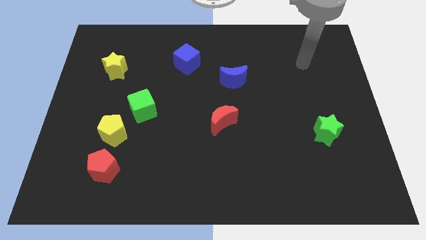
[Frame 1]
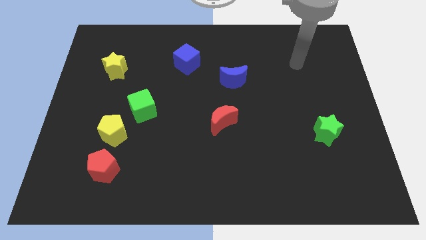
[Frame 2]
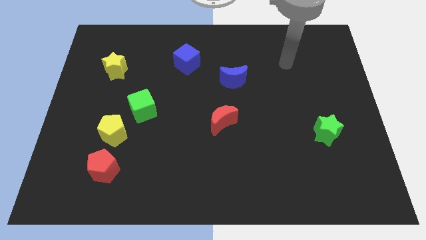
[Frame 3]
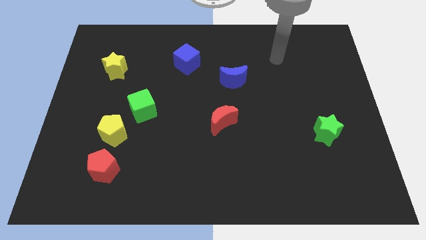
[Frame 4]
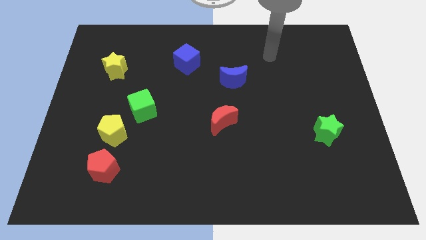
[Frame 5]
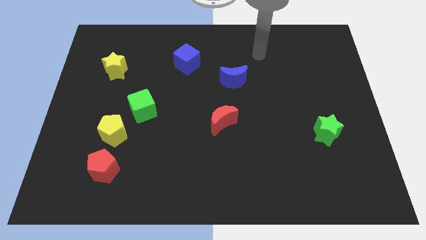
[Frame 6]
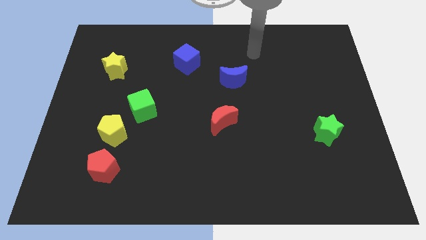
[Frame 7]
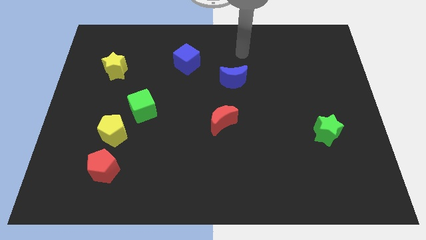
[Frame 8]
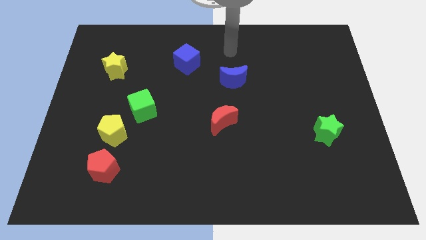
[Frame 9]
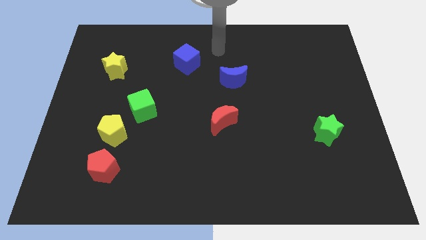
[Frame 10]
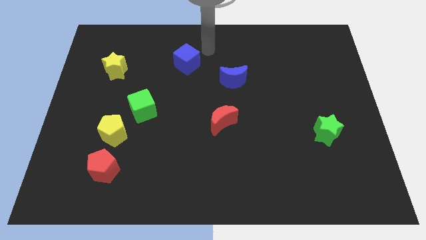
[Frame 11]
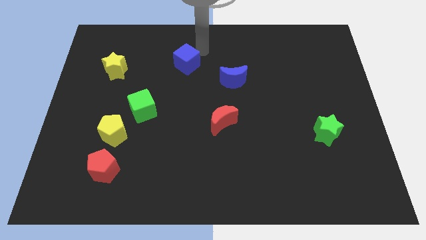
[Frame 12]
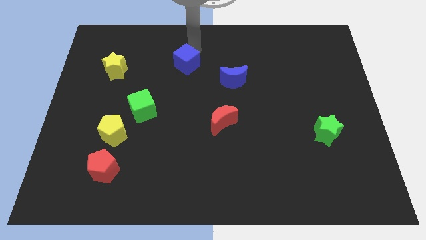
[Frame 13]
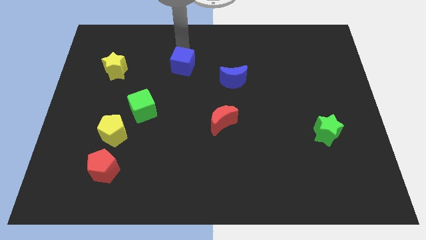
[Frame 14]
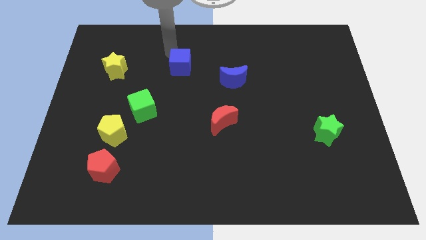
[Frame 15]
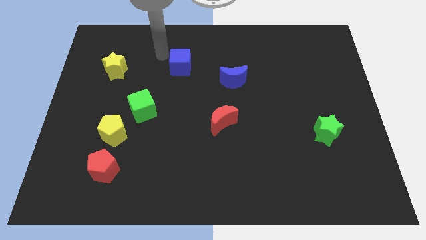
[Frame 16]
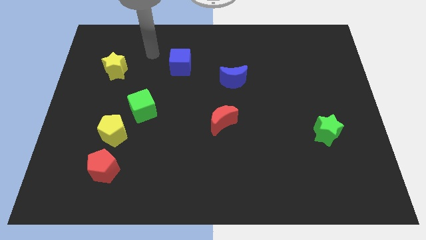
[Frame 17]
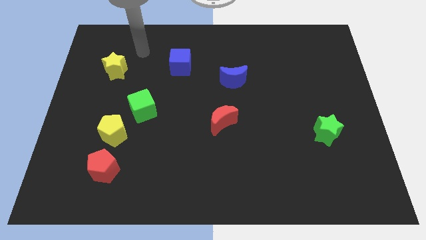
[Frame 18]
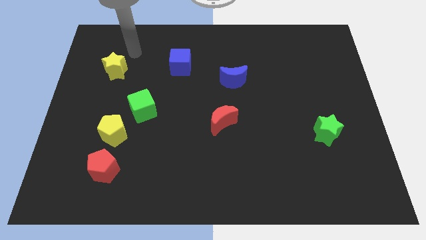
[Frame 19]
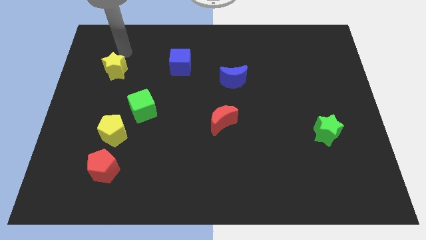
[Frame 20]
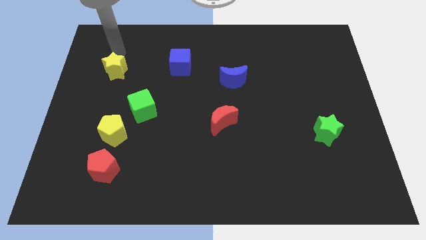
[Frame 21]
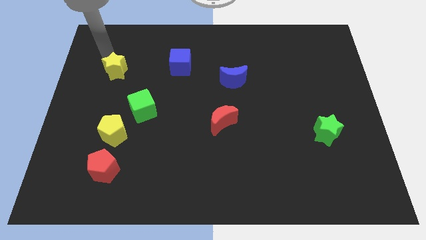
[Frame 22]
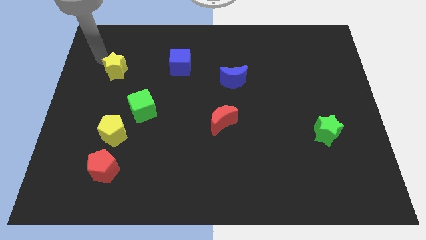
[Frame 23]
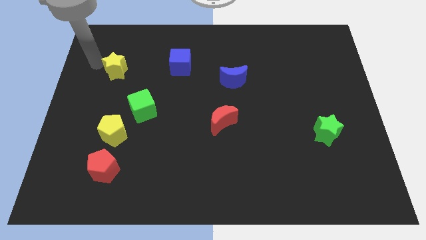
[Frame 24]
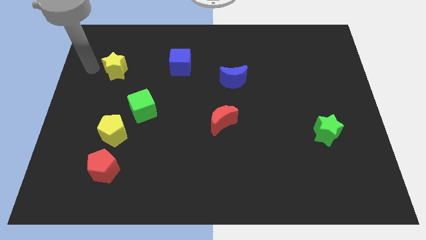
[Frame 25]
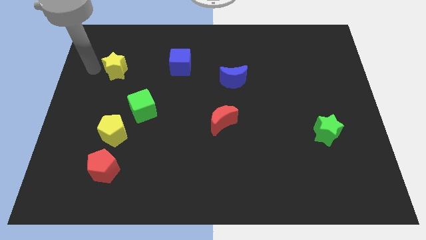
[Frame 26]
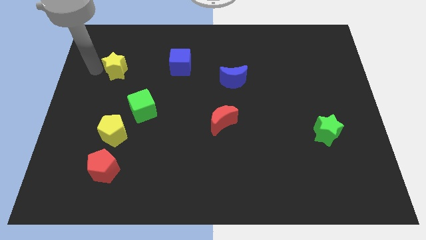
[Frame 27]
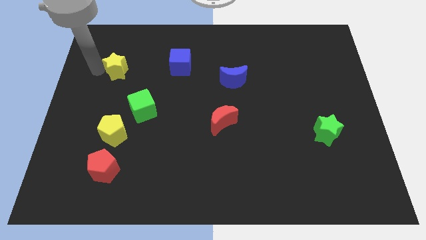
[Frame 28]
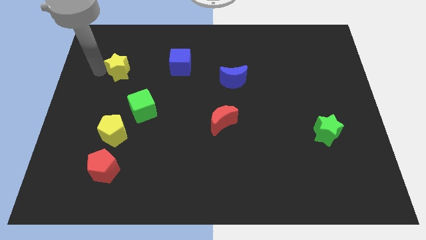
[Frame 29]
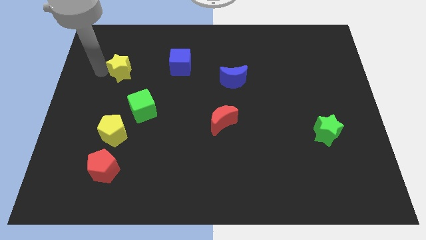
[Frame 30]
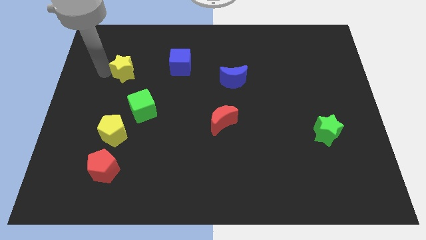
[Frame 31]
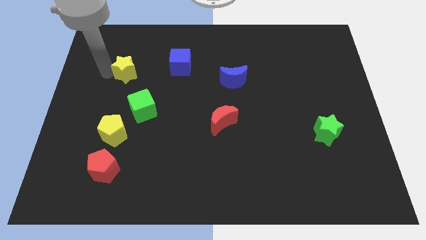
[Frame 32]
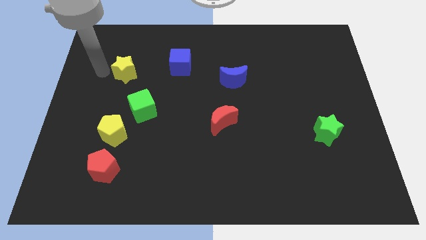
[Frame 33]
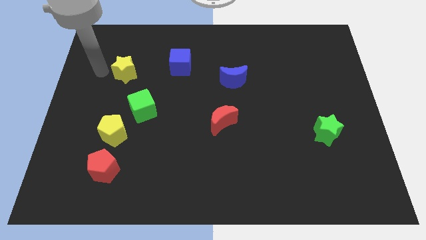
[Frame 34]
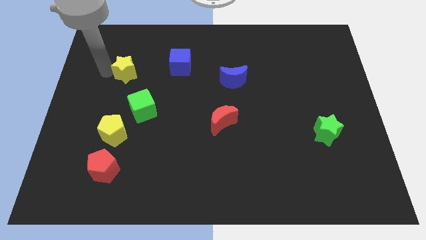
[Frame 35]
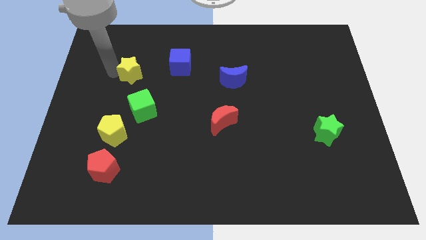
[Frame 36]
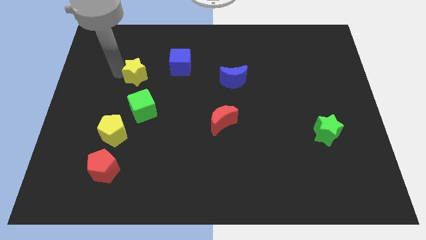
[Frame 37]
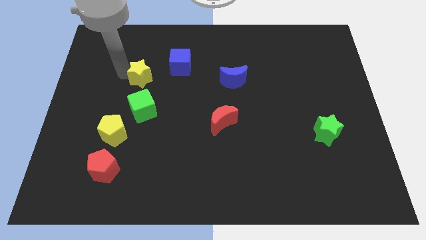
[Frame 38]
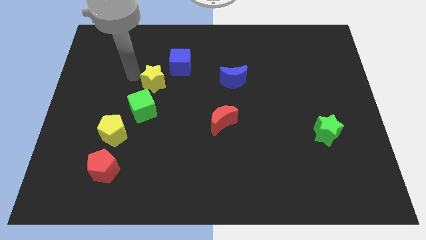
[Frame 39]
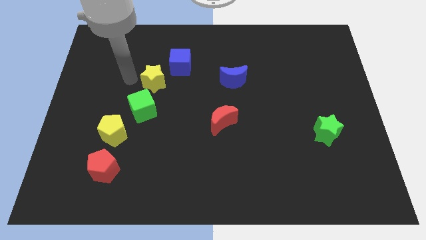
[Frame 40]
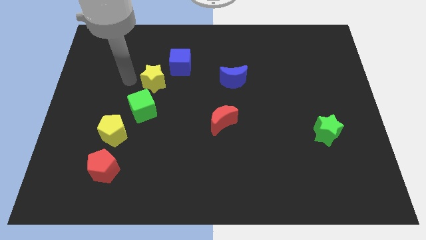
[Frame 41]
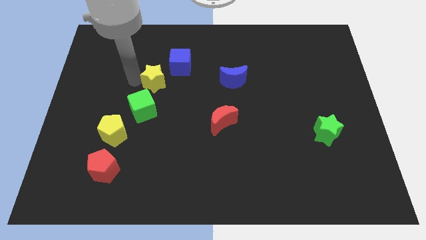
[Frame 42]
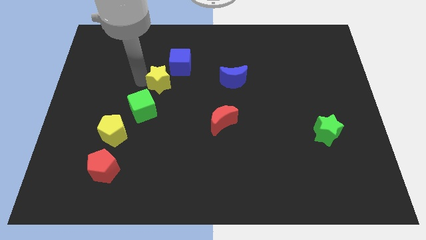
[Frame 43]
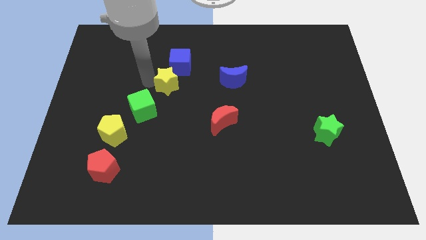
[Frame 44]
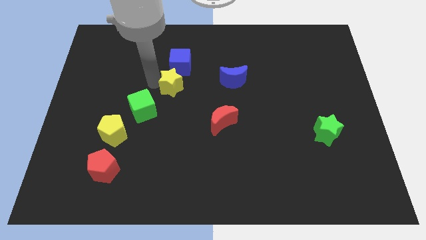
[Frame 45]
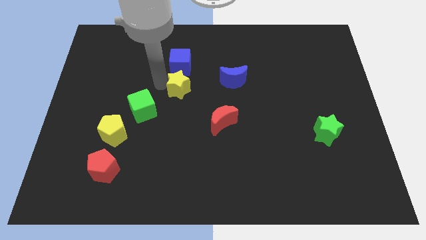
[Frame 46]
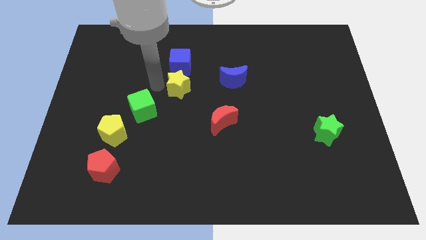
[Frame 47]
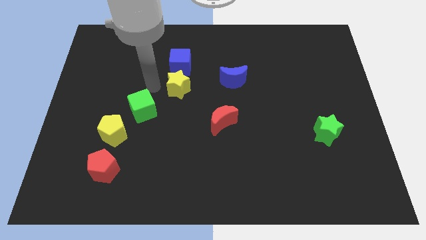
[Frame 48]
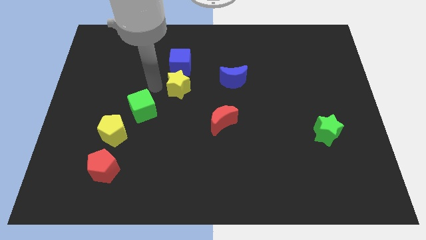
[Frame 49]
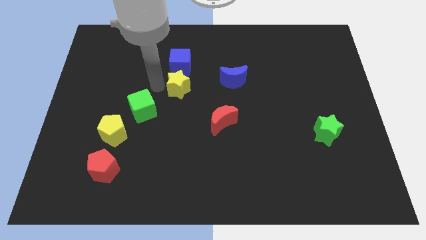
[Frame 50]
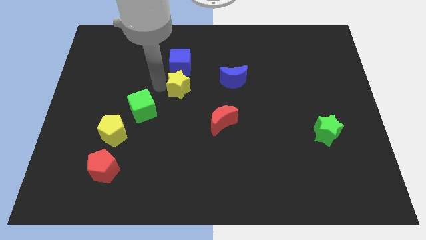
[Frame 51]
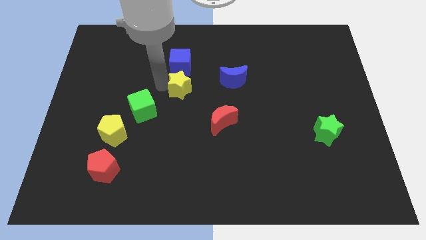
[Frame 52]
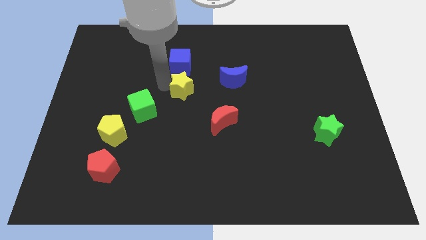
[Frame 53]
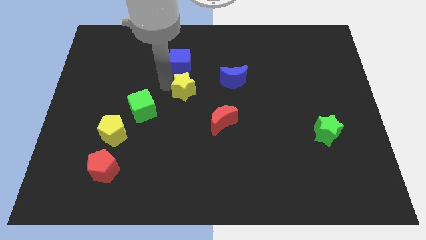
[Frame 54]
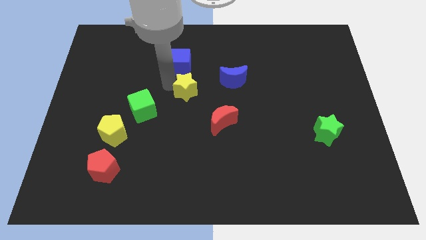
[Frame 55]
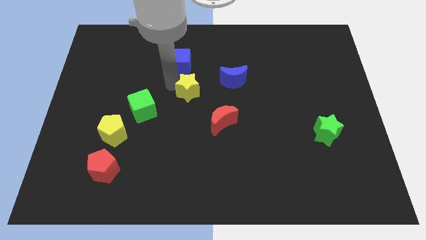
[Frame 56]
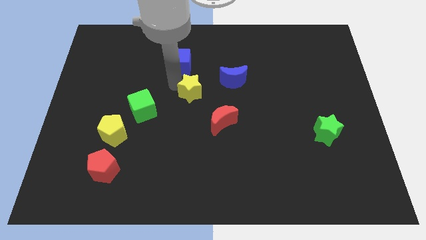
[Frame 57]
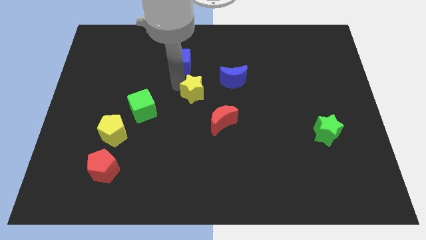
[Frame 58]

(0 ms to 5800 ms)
slide the yellow star to the bottom left side of the blue moon
